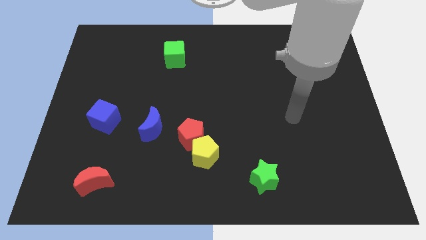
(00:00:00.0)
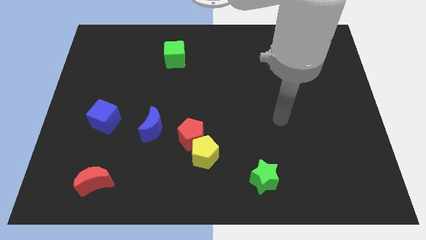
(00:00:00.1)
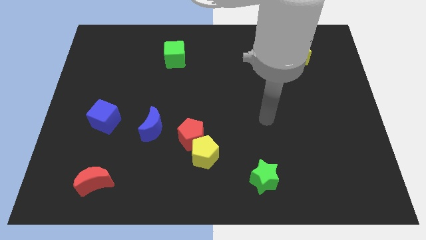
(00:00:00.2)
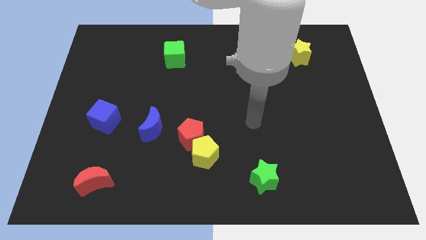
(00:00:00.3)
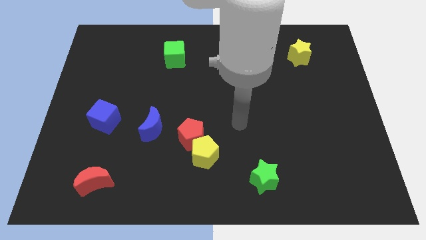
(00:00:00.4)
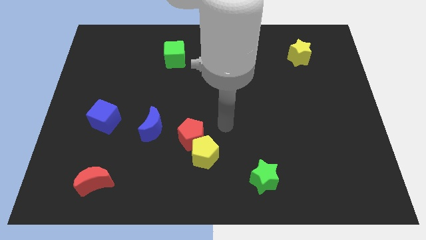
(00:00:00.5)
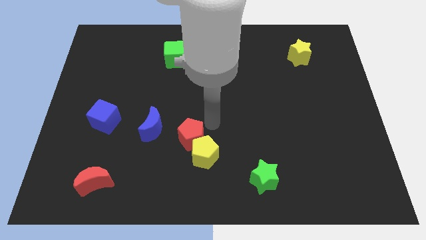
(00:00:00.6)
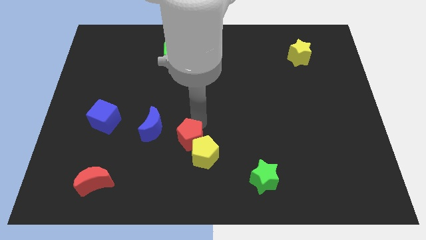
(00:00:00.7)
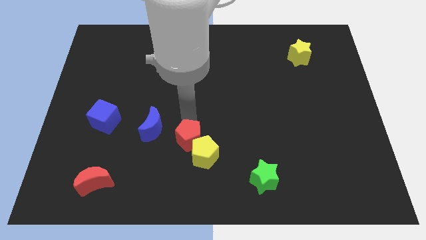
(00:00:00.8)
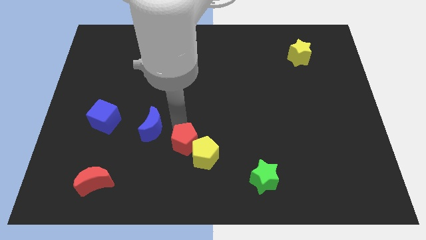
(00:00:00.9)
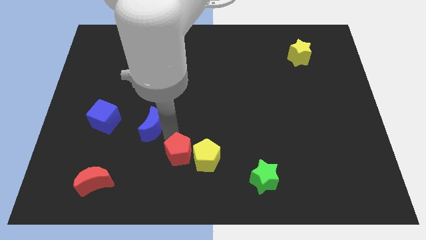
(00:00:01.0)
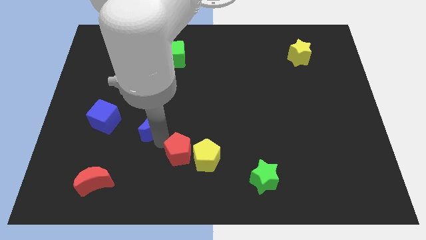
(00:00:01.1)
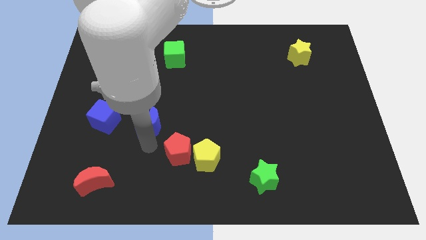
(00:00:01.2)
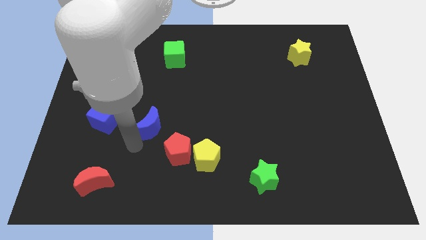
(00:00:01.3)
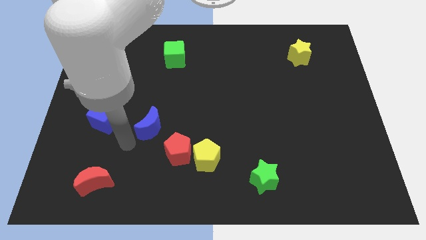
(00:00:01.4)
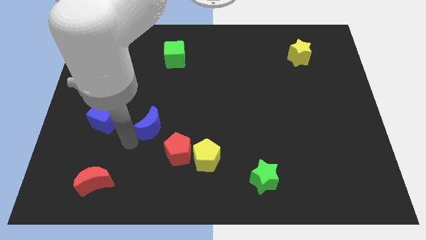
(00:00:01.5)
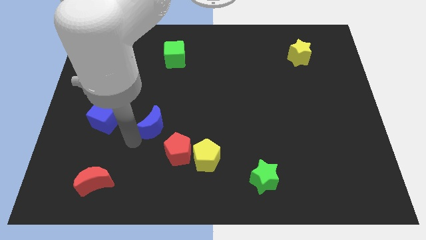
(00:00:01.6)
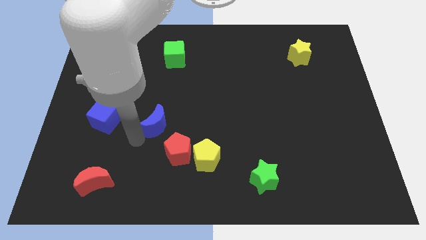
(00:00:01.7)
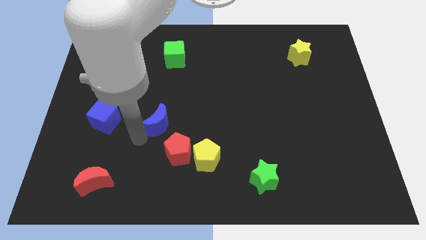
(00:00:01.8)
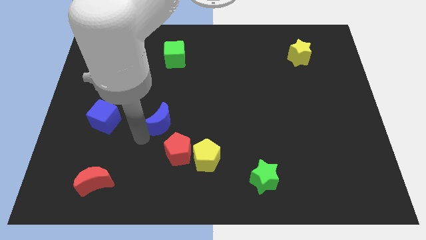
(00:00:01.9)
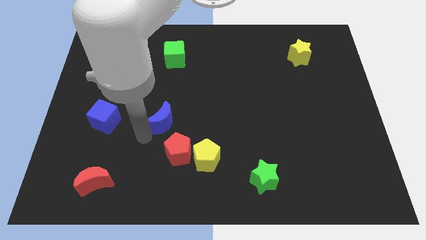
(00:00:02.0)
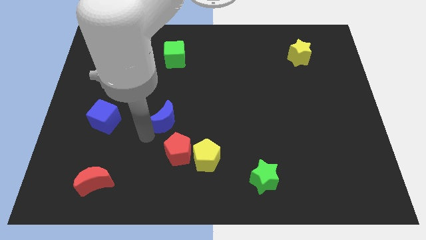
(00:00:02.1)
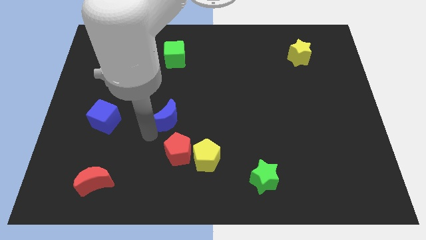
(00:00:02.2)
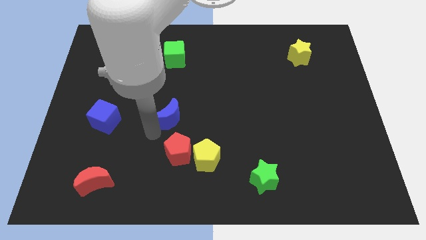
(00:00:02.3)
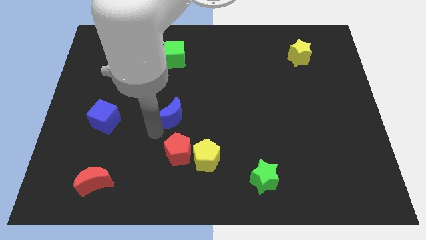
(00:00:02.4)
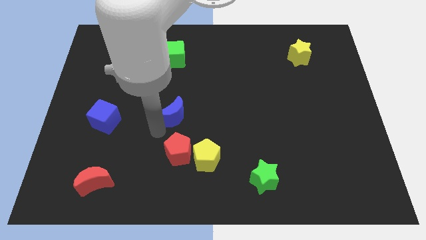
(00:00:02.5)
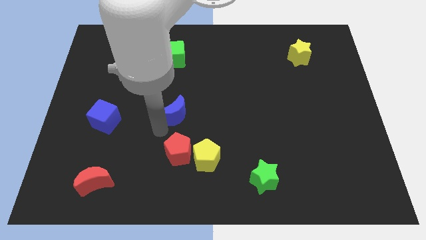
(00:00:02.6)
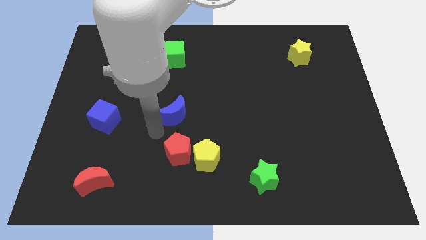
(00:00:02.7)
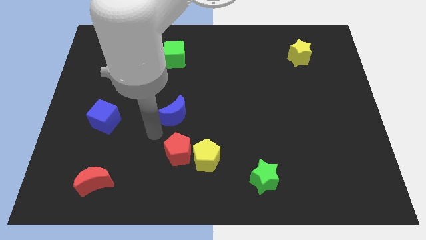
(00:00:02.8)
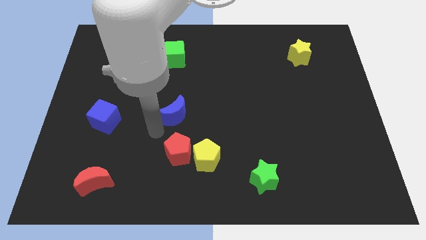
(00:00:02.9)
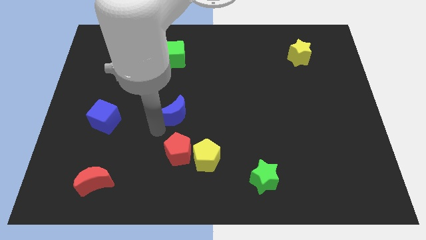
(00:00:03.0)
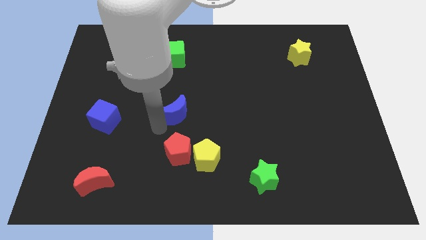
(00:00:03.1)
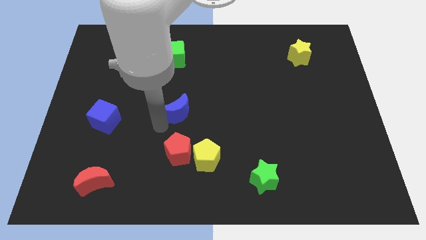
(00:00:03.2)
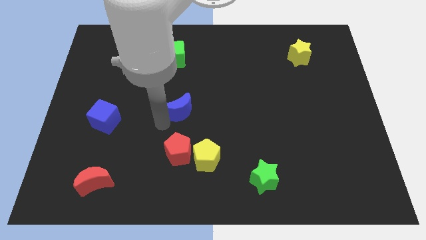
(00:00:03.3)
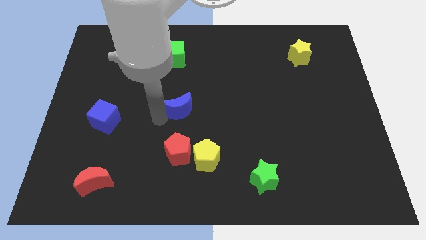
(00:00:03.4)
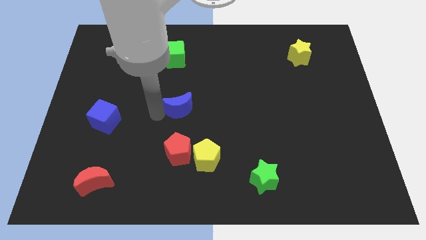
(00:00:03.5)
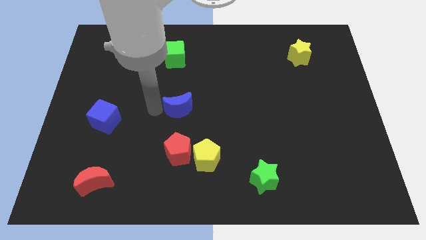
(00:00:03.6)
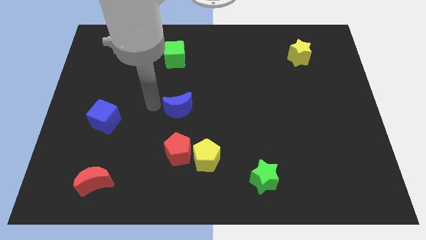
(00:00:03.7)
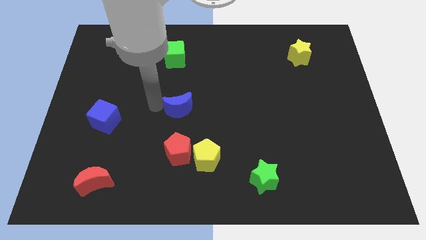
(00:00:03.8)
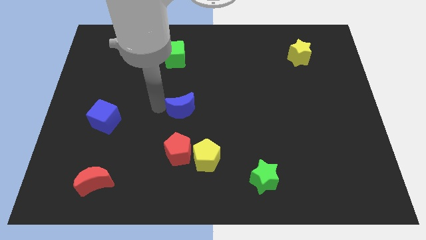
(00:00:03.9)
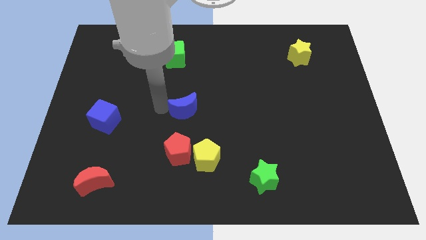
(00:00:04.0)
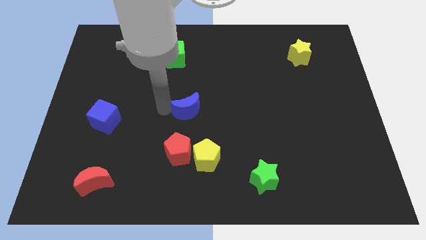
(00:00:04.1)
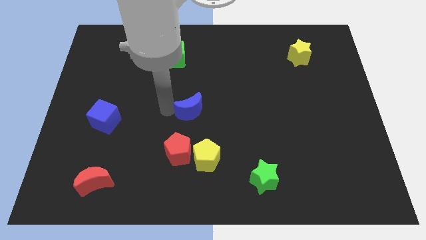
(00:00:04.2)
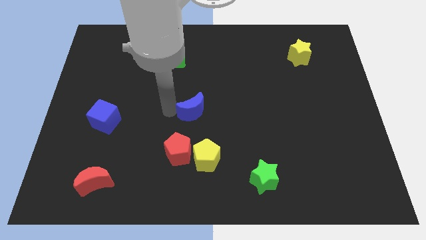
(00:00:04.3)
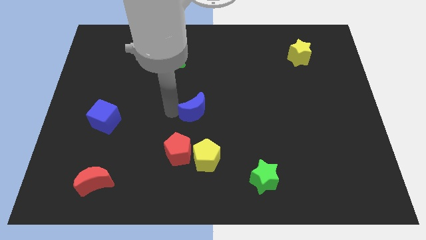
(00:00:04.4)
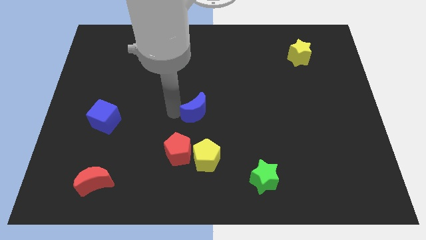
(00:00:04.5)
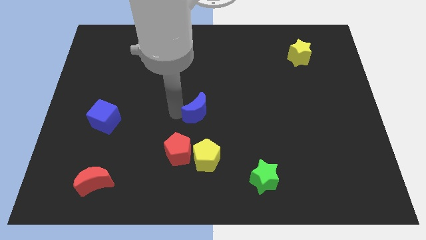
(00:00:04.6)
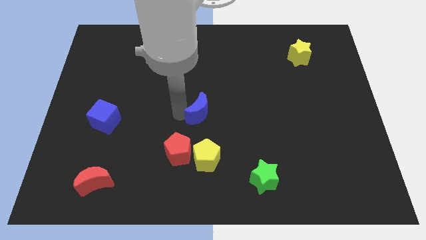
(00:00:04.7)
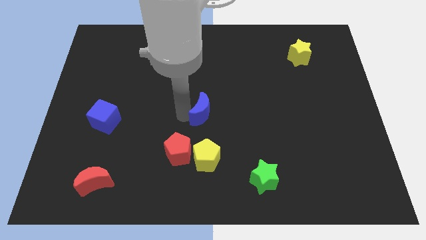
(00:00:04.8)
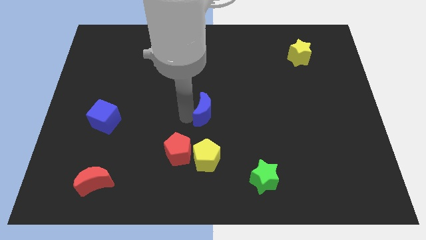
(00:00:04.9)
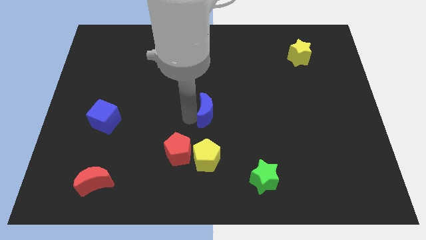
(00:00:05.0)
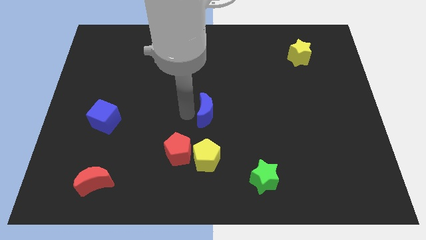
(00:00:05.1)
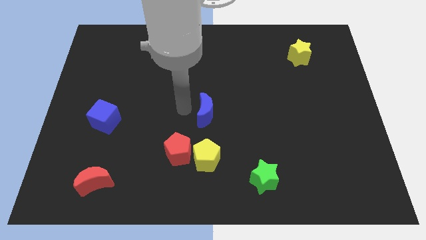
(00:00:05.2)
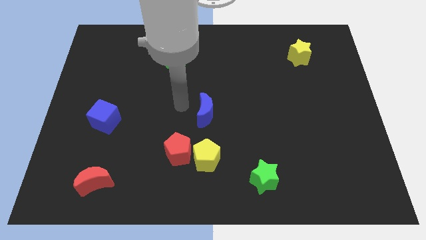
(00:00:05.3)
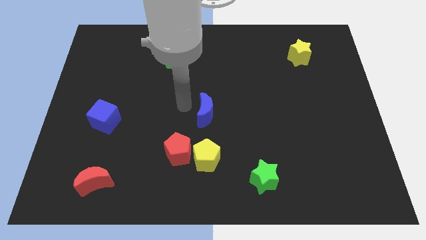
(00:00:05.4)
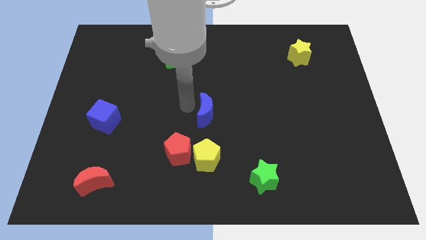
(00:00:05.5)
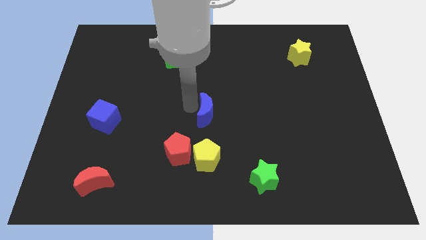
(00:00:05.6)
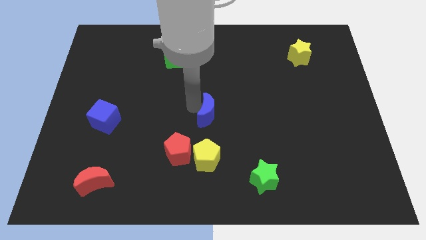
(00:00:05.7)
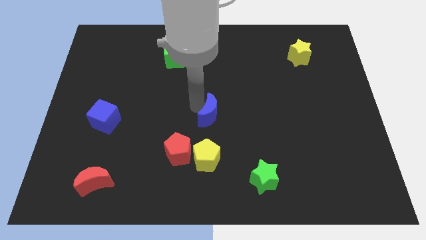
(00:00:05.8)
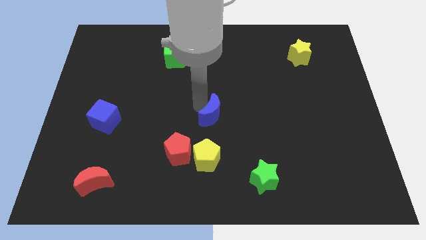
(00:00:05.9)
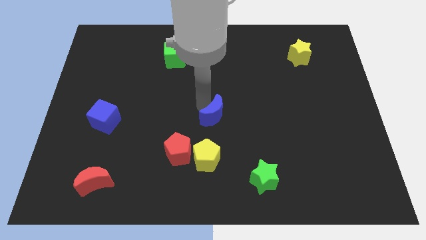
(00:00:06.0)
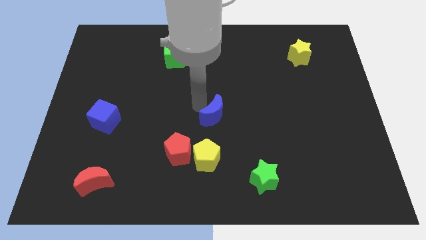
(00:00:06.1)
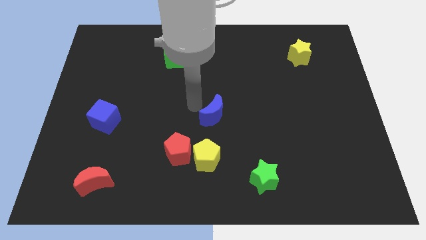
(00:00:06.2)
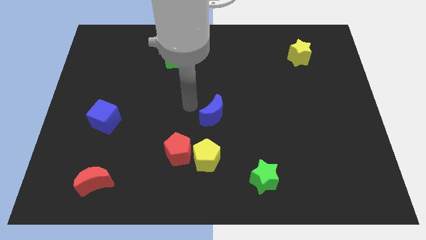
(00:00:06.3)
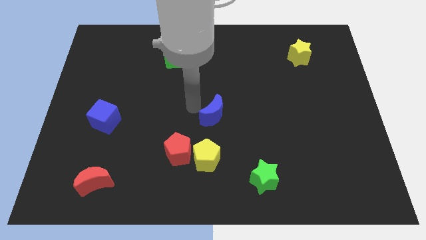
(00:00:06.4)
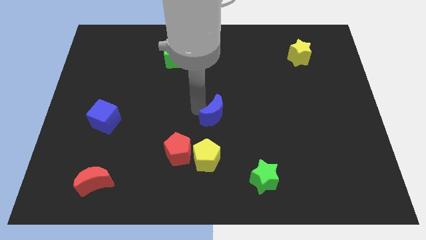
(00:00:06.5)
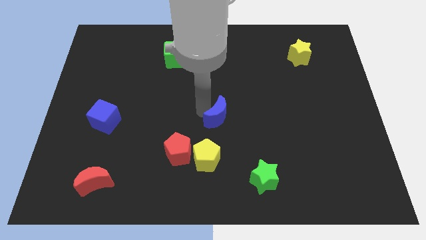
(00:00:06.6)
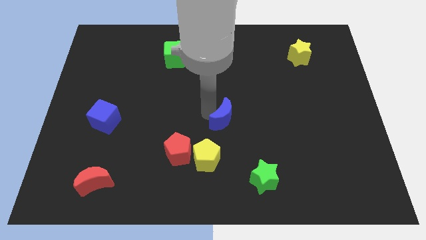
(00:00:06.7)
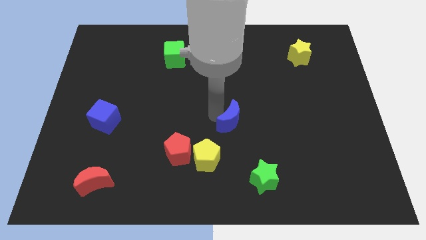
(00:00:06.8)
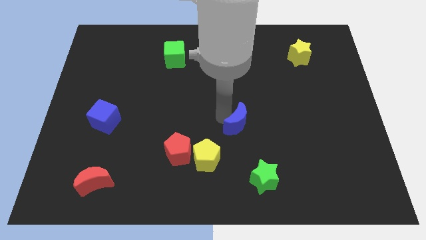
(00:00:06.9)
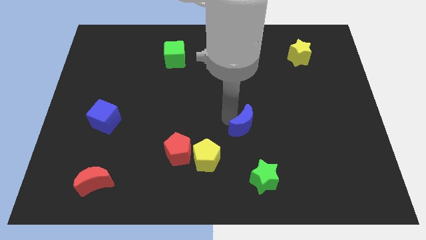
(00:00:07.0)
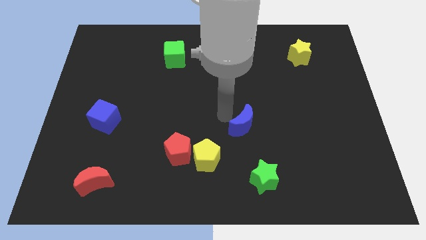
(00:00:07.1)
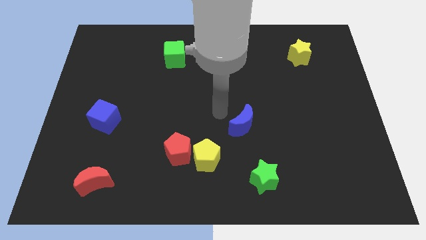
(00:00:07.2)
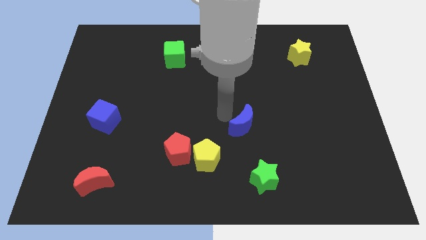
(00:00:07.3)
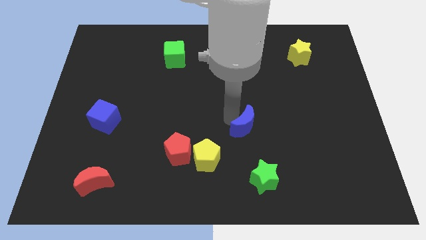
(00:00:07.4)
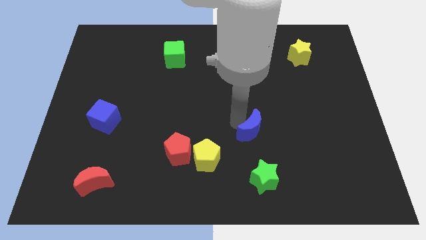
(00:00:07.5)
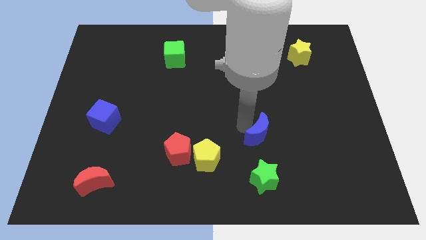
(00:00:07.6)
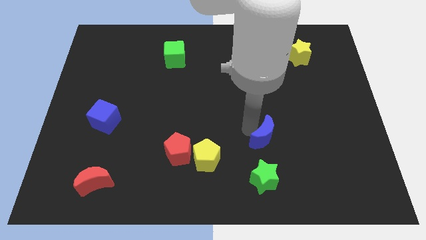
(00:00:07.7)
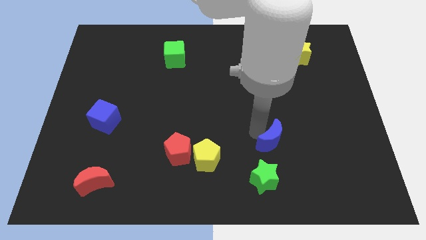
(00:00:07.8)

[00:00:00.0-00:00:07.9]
put the blue moon diagonally up and to the right of the green star

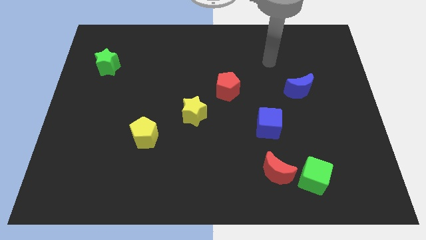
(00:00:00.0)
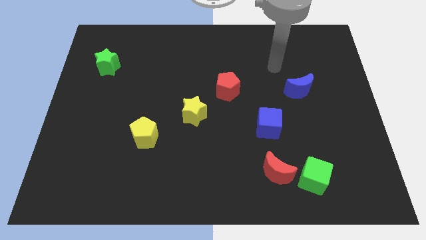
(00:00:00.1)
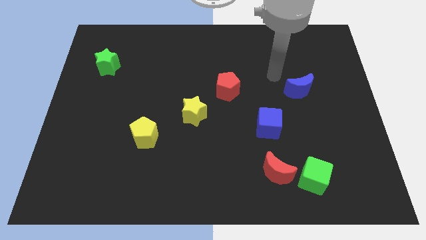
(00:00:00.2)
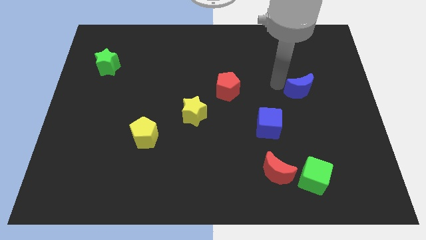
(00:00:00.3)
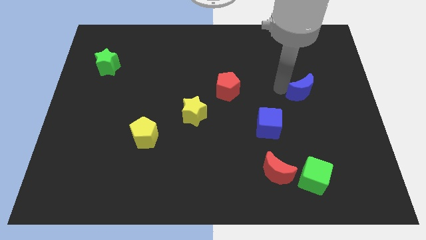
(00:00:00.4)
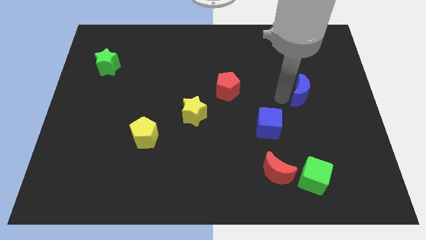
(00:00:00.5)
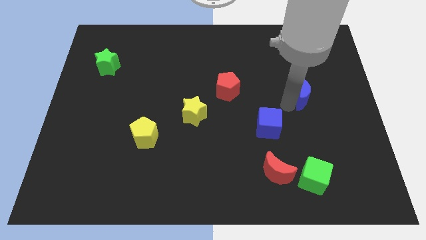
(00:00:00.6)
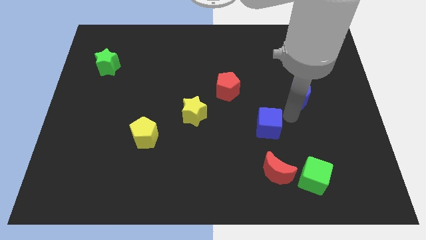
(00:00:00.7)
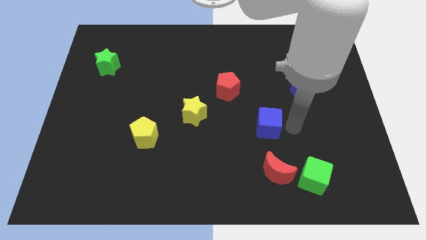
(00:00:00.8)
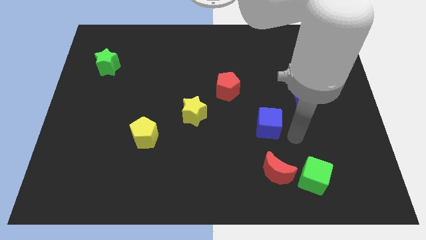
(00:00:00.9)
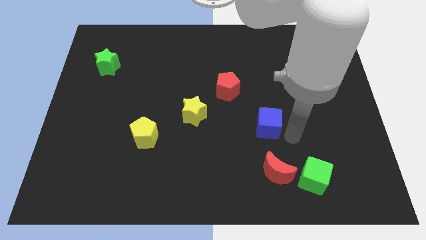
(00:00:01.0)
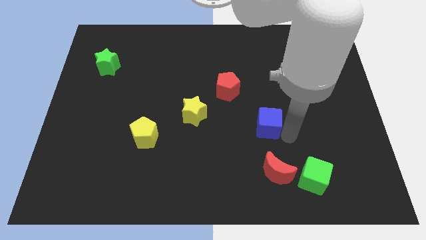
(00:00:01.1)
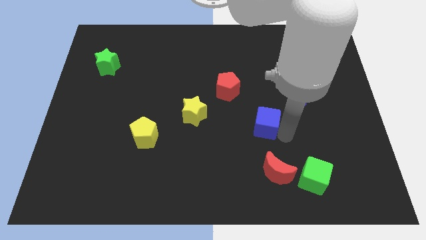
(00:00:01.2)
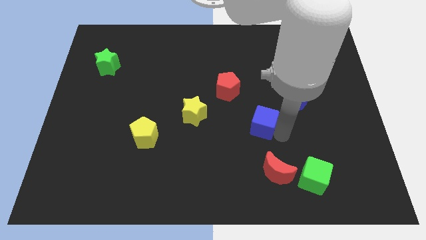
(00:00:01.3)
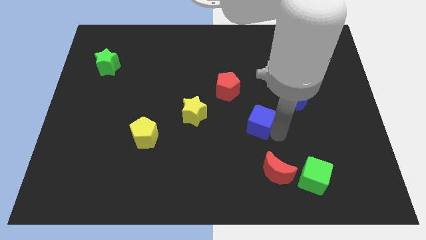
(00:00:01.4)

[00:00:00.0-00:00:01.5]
put the blue cube right of the yellow star
